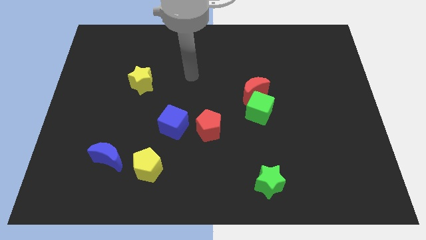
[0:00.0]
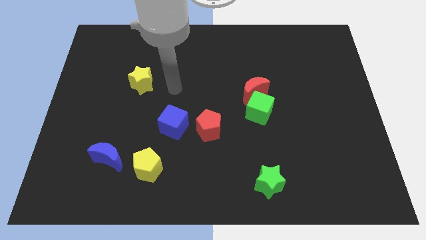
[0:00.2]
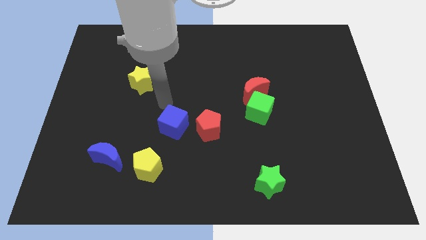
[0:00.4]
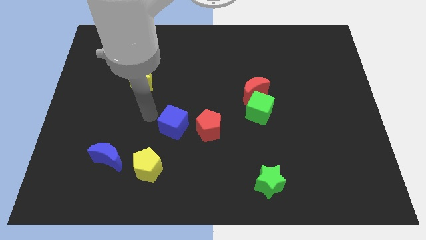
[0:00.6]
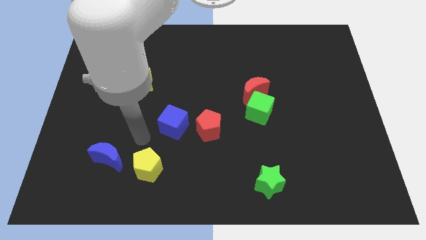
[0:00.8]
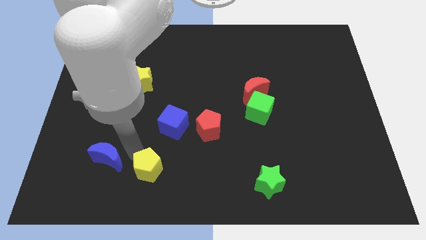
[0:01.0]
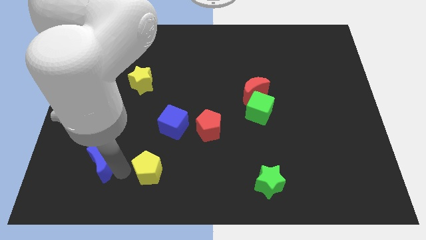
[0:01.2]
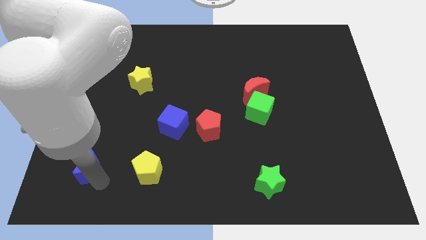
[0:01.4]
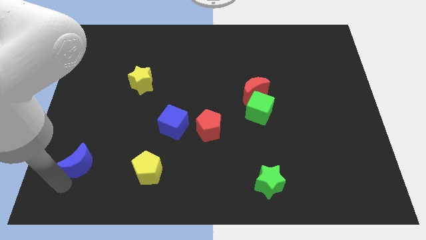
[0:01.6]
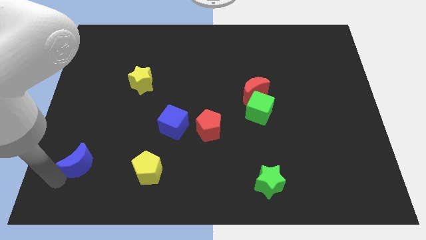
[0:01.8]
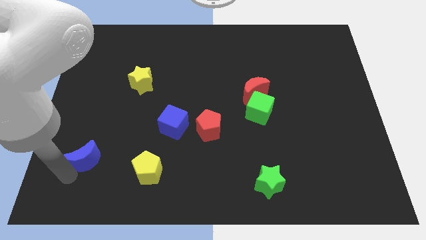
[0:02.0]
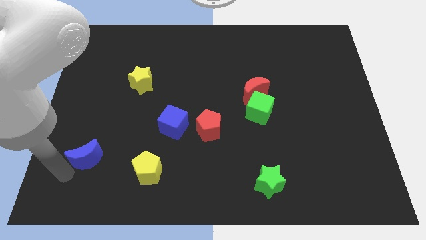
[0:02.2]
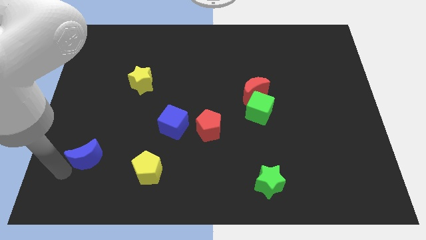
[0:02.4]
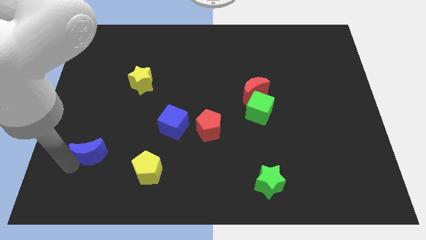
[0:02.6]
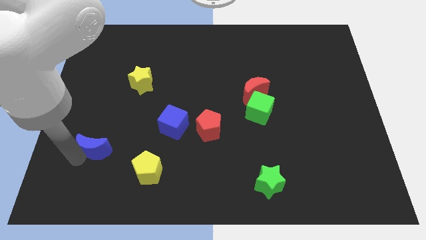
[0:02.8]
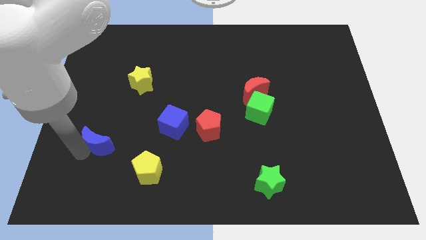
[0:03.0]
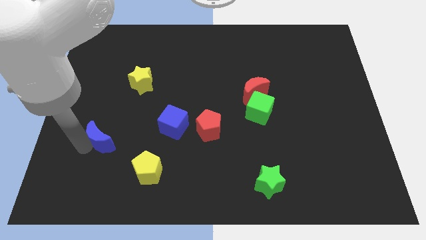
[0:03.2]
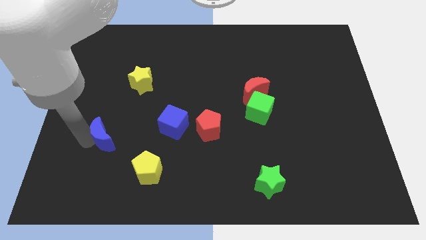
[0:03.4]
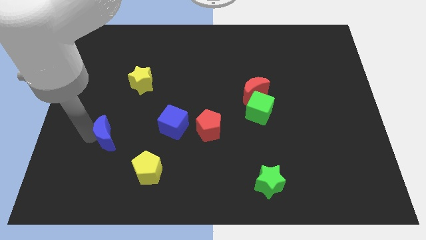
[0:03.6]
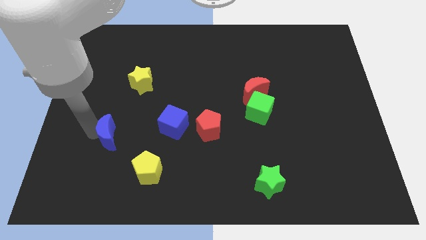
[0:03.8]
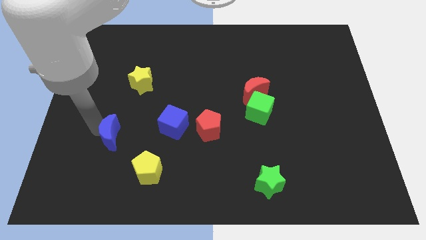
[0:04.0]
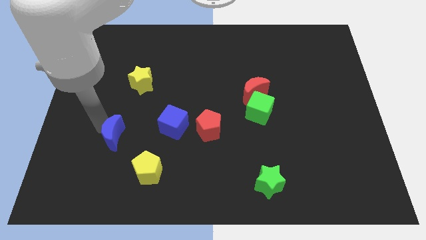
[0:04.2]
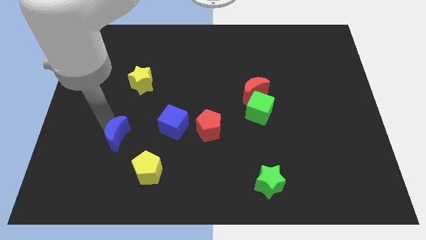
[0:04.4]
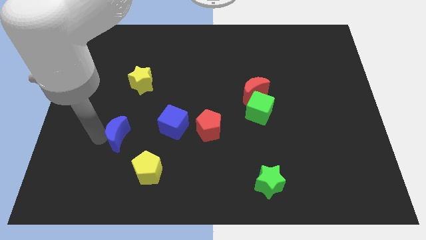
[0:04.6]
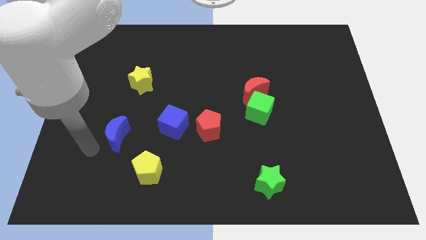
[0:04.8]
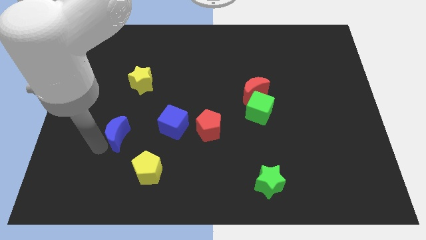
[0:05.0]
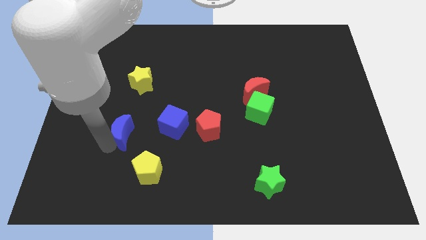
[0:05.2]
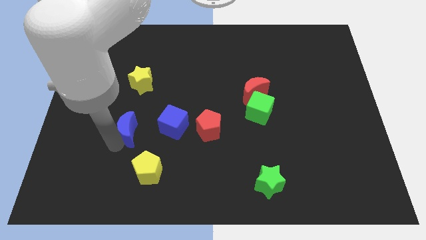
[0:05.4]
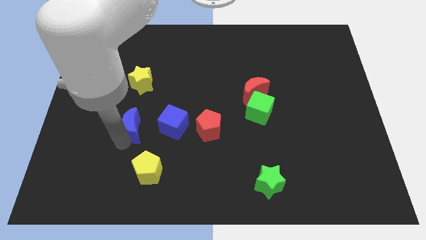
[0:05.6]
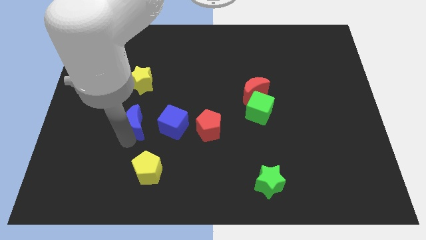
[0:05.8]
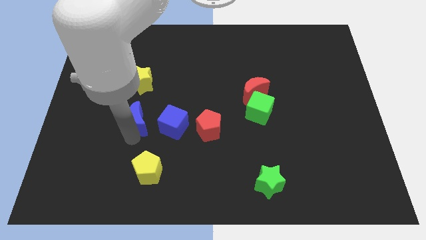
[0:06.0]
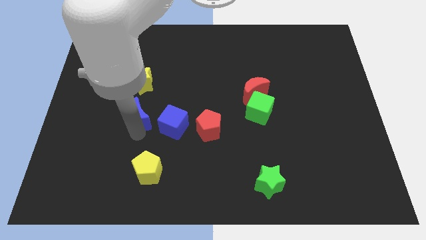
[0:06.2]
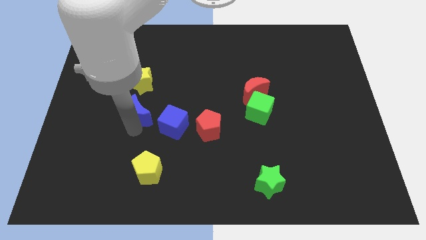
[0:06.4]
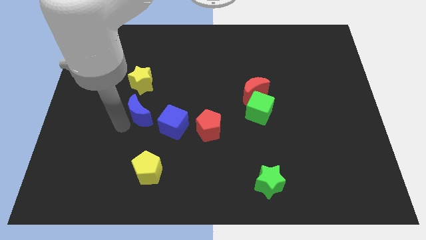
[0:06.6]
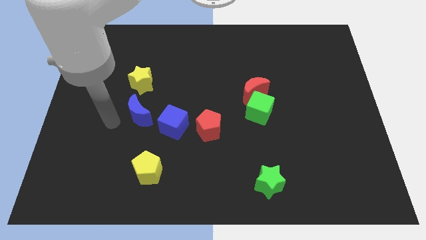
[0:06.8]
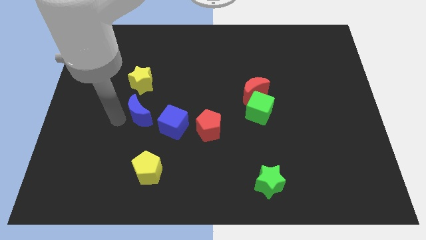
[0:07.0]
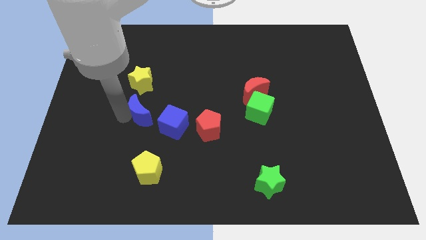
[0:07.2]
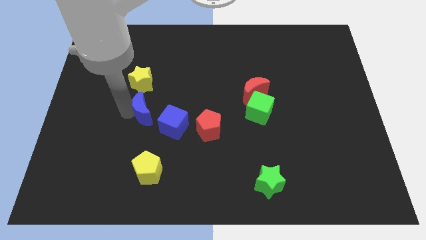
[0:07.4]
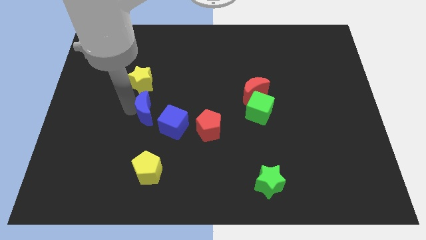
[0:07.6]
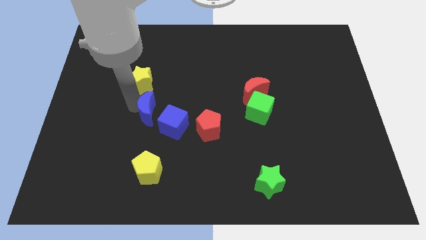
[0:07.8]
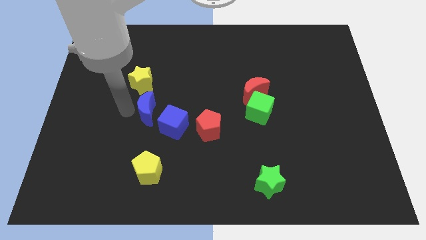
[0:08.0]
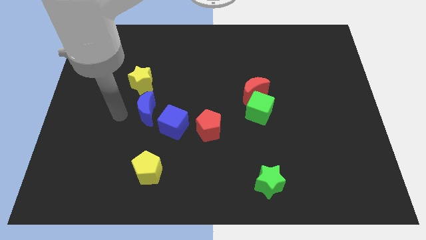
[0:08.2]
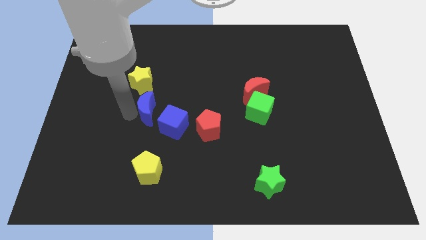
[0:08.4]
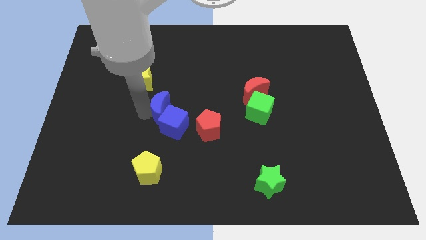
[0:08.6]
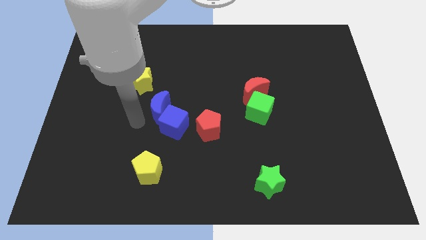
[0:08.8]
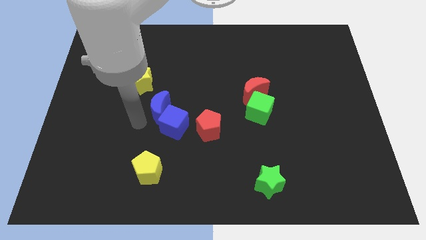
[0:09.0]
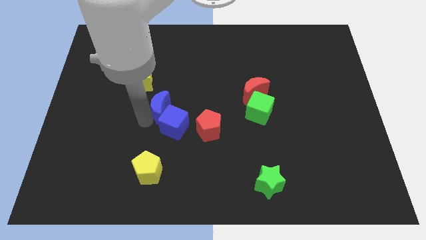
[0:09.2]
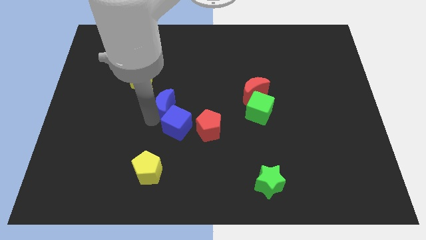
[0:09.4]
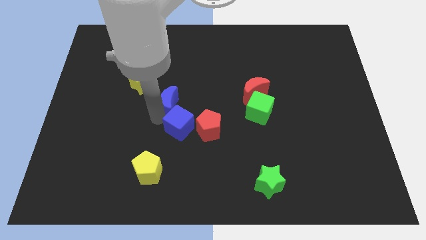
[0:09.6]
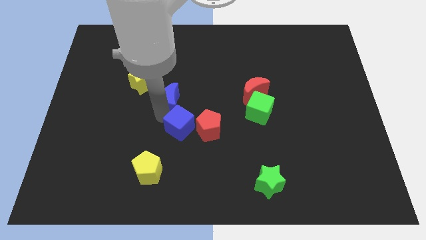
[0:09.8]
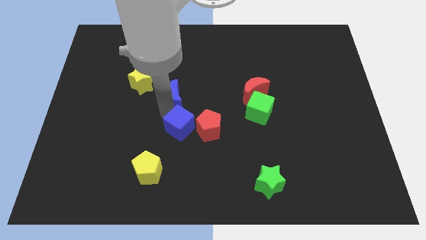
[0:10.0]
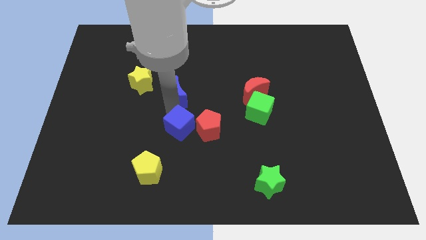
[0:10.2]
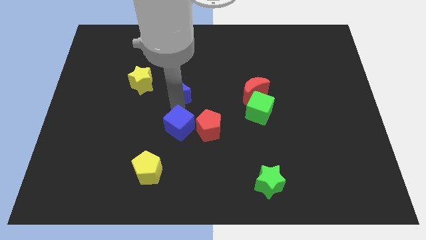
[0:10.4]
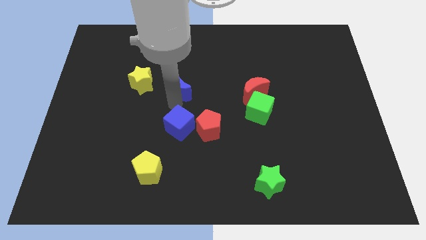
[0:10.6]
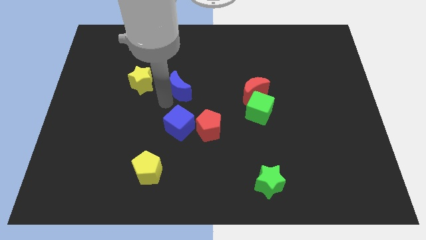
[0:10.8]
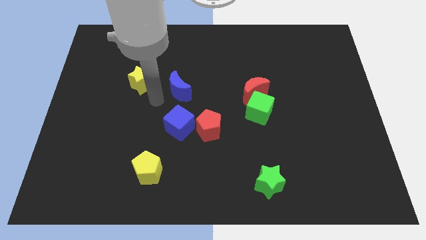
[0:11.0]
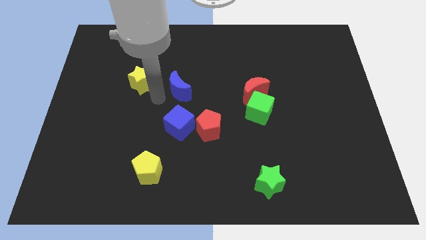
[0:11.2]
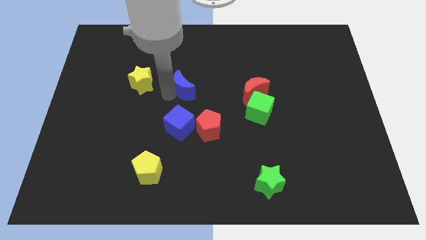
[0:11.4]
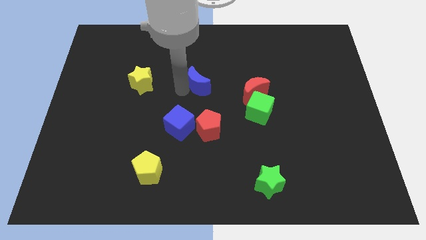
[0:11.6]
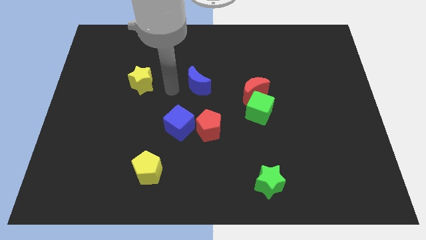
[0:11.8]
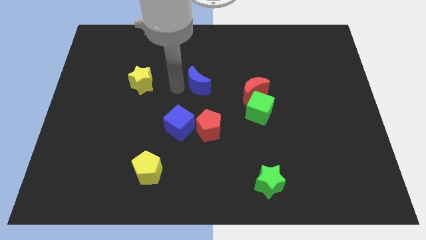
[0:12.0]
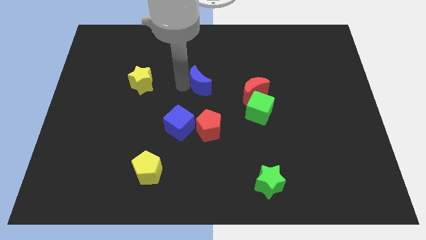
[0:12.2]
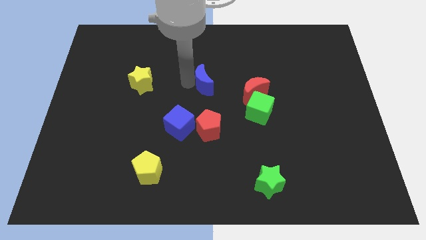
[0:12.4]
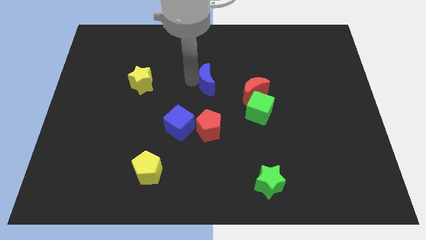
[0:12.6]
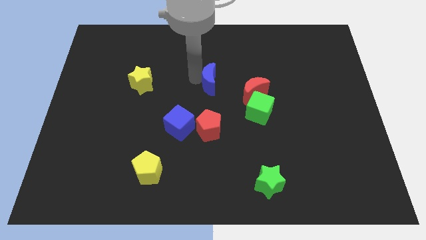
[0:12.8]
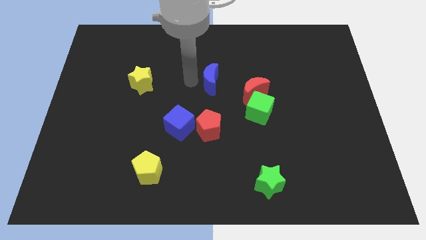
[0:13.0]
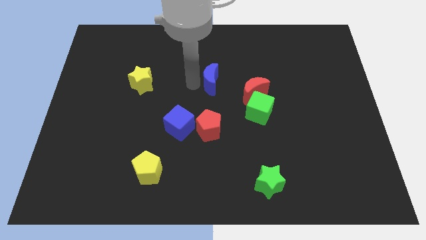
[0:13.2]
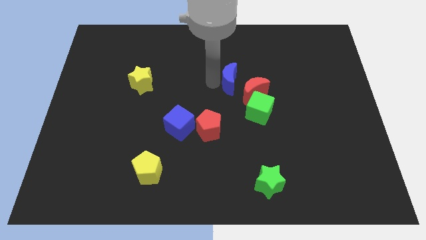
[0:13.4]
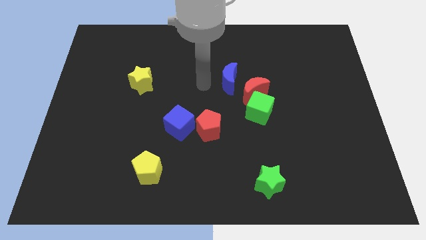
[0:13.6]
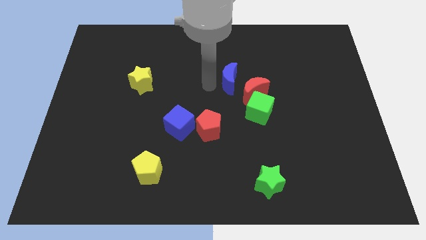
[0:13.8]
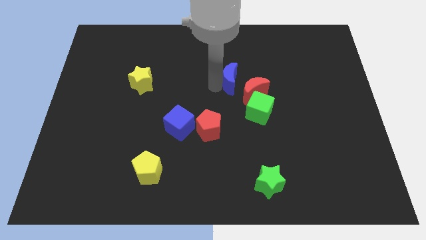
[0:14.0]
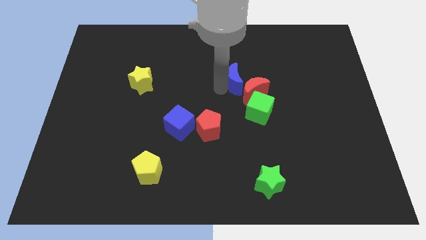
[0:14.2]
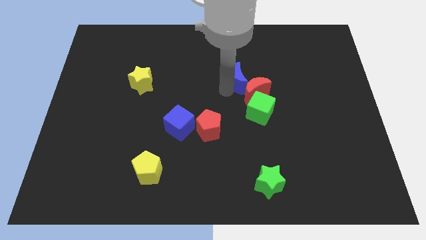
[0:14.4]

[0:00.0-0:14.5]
put the blue moon to the top side of the green cube
